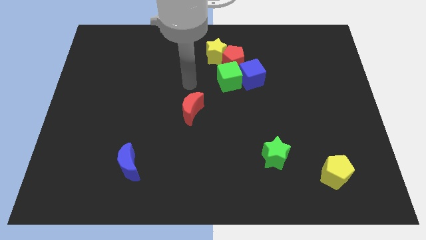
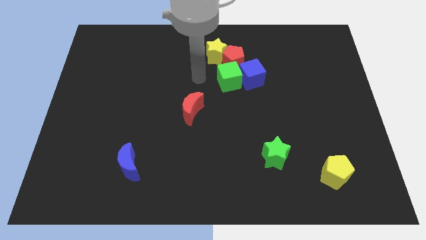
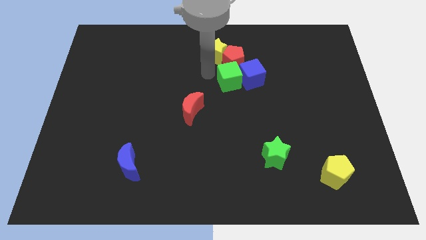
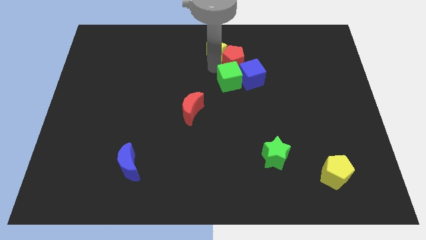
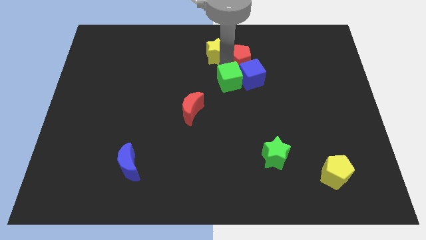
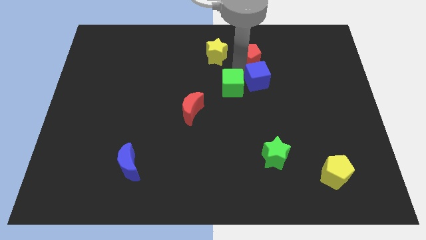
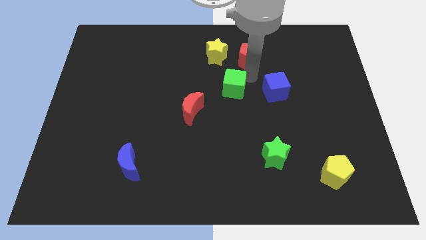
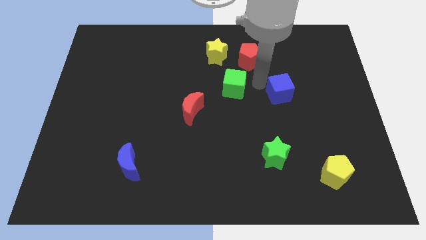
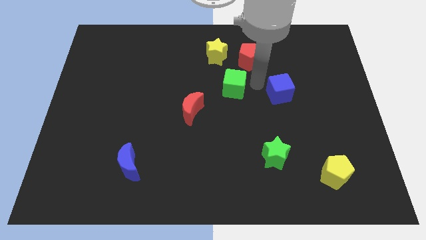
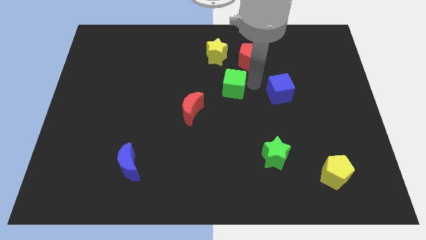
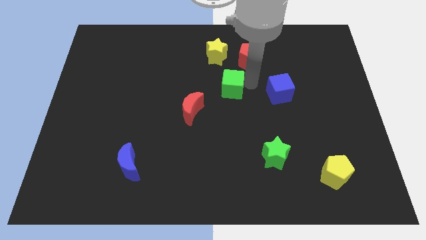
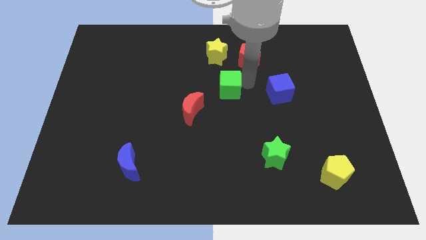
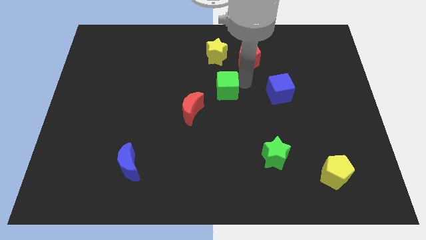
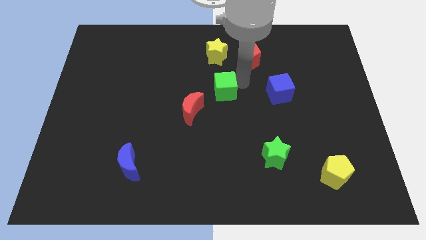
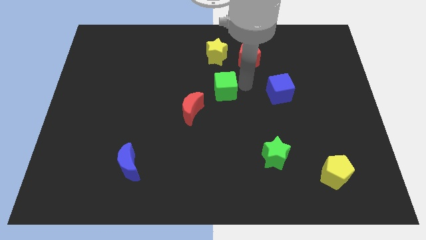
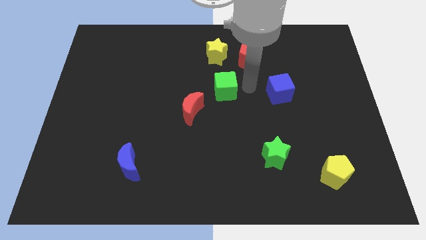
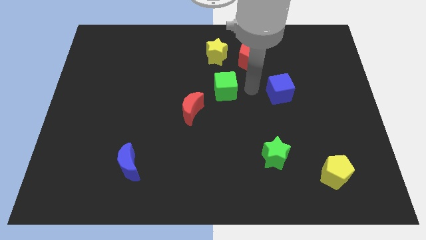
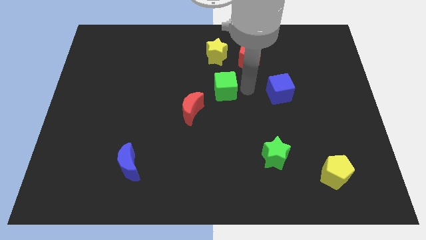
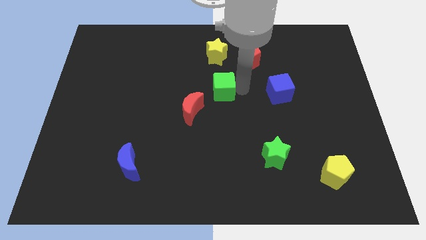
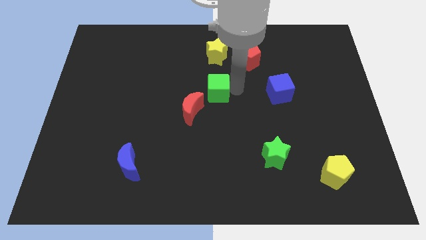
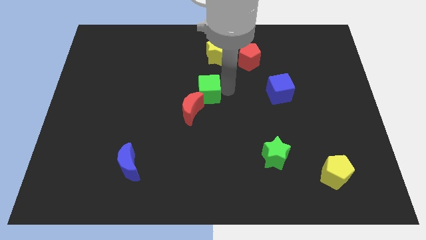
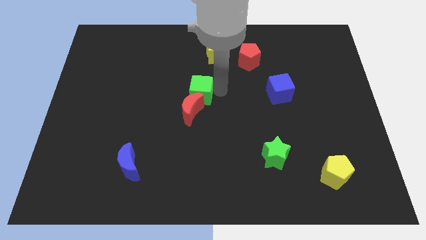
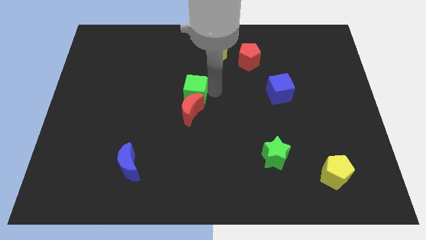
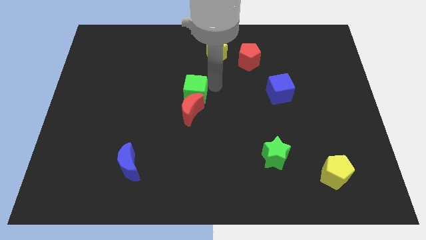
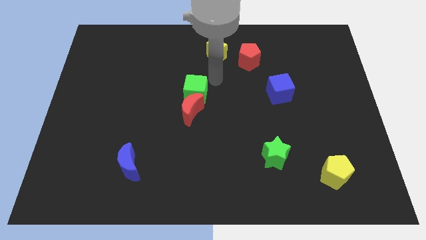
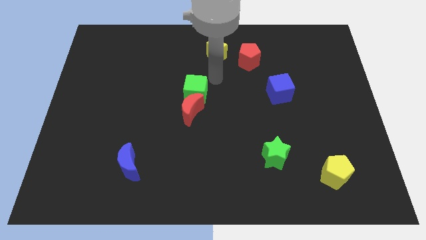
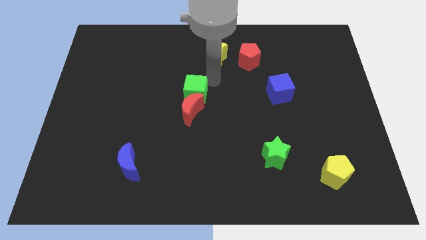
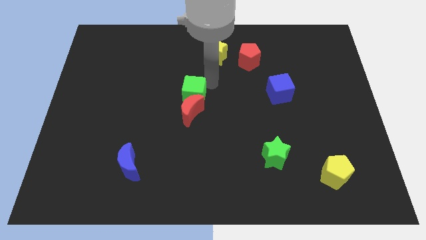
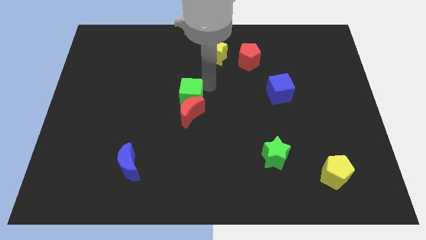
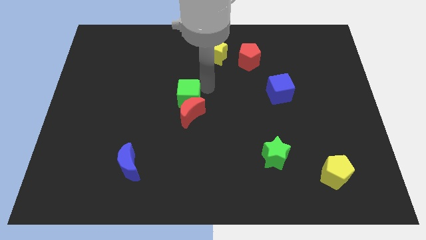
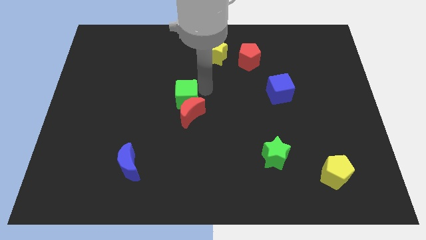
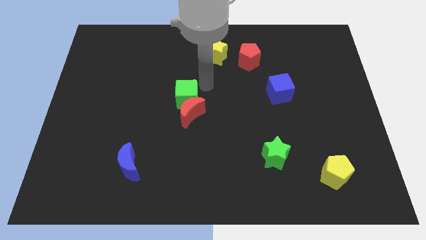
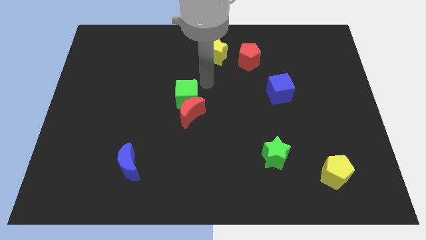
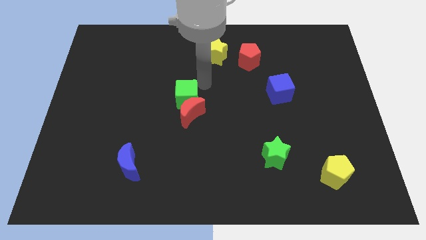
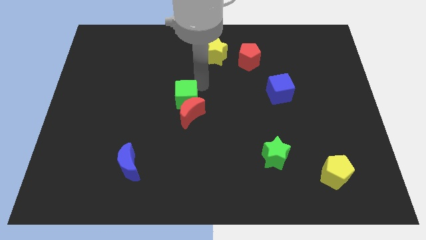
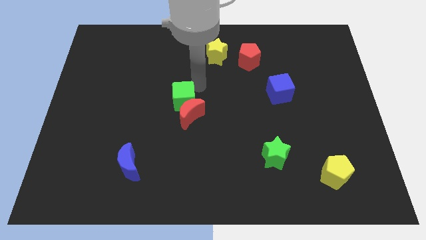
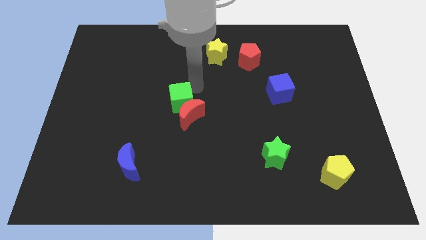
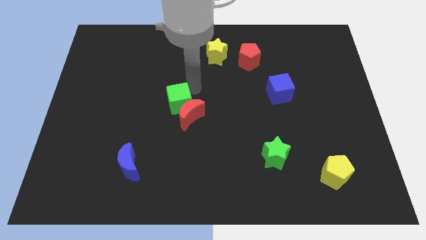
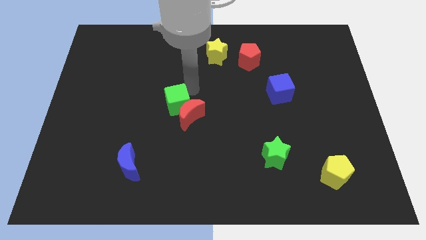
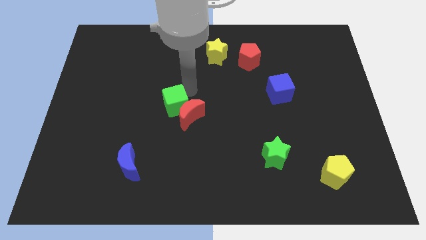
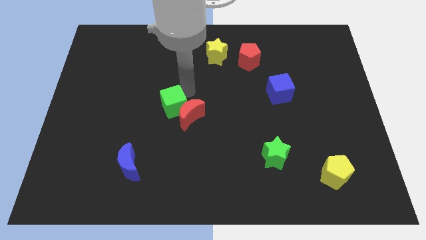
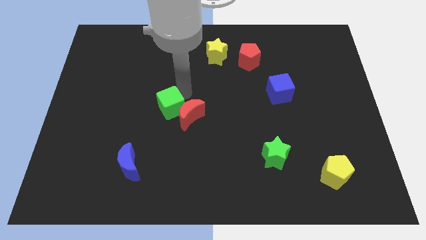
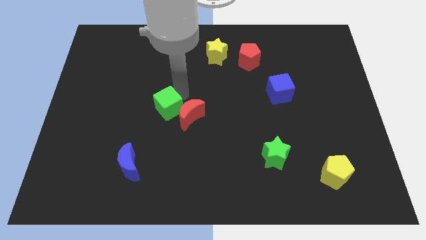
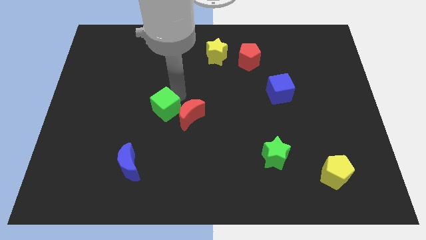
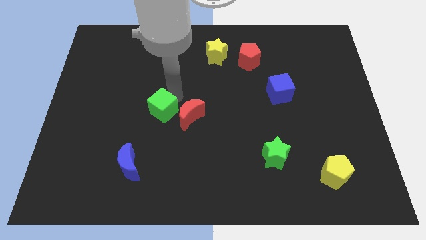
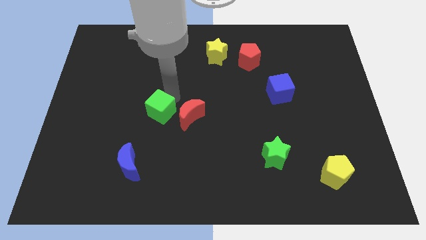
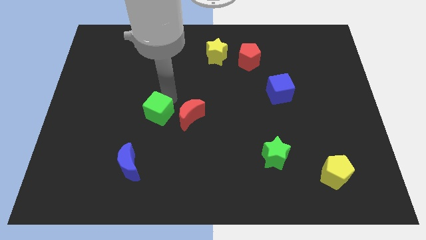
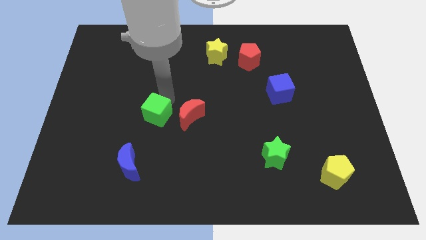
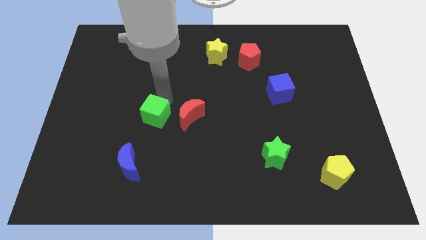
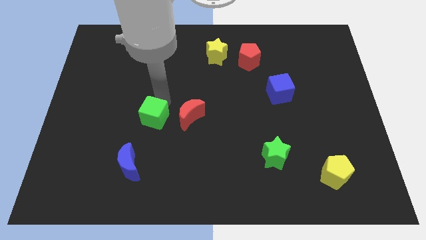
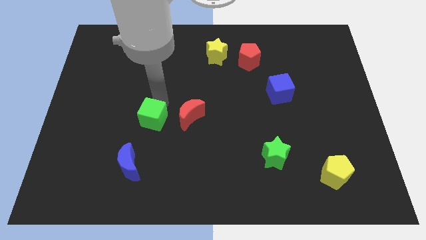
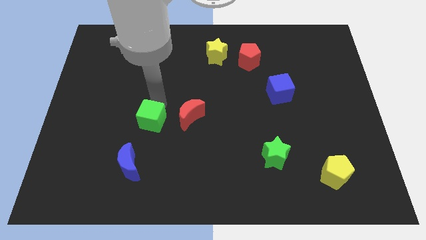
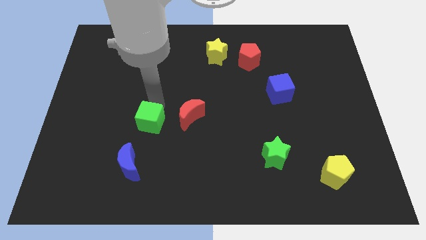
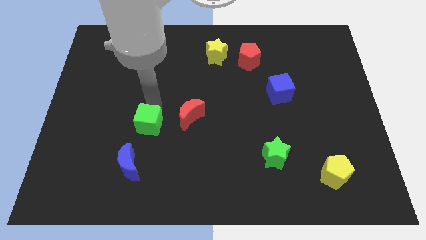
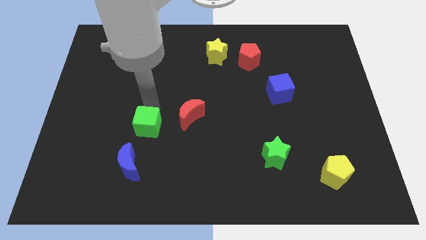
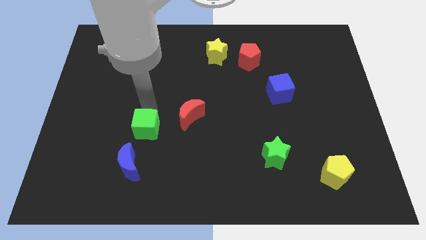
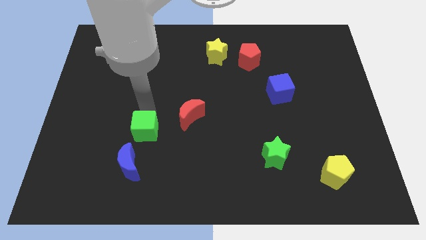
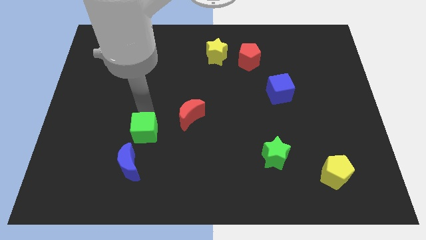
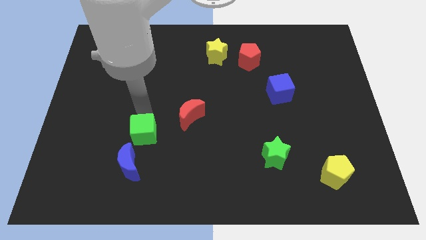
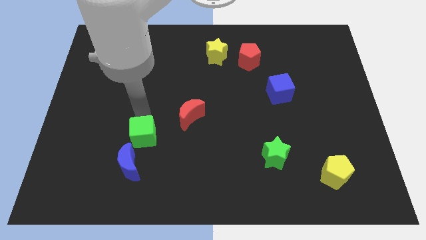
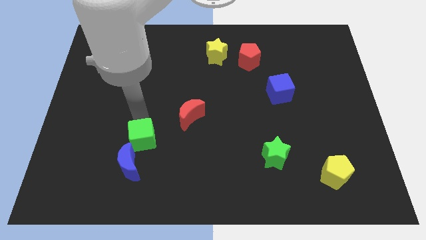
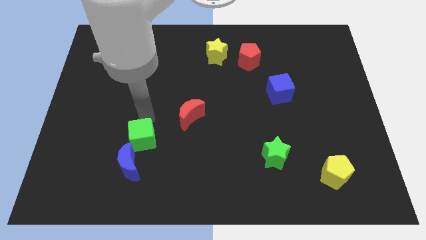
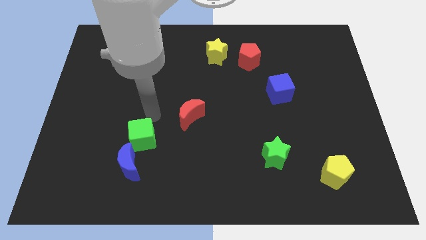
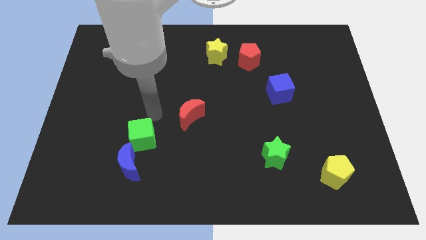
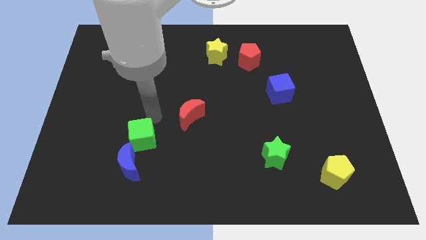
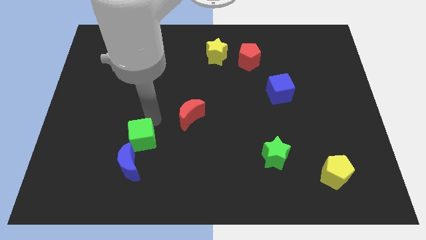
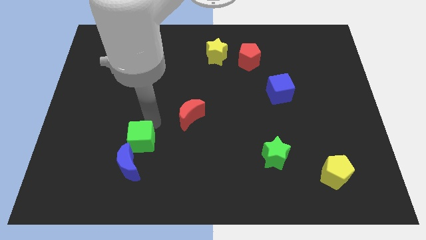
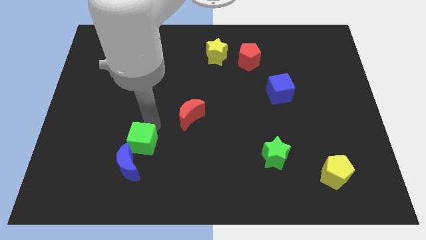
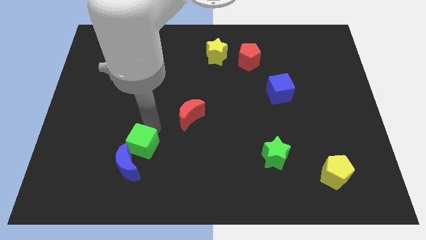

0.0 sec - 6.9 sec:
put the green cube close to the blue moon

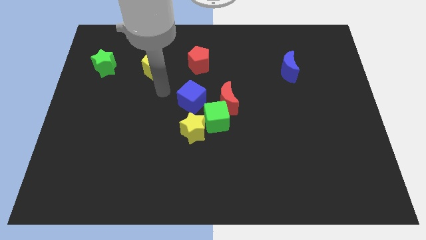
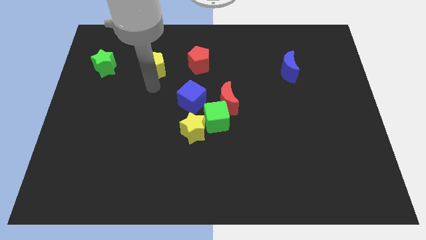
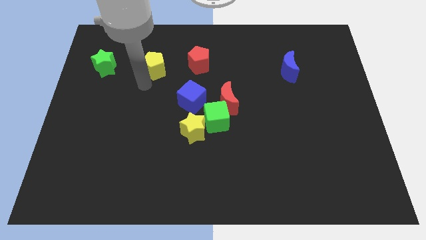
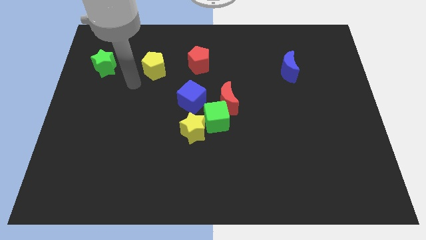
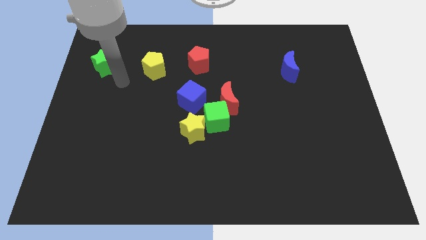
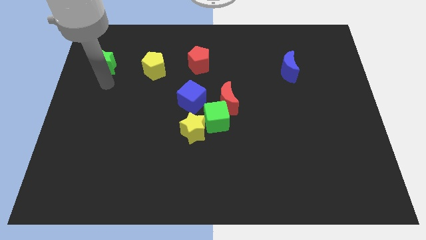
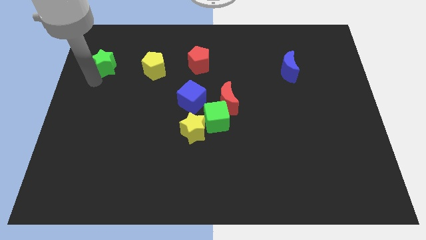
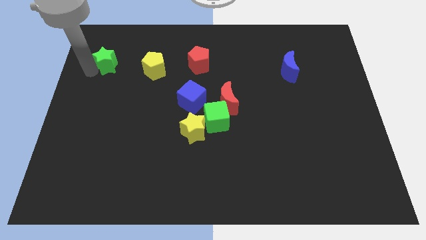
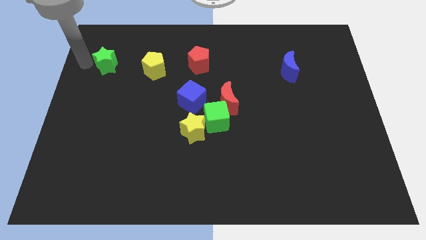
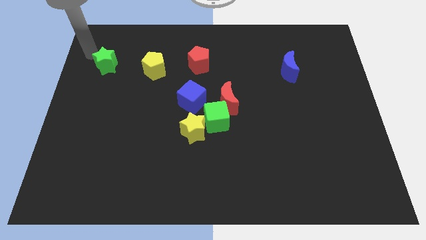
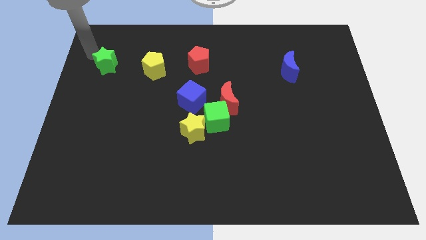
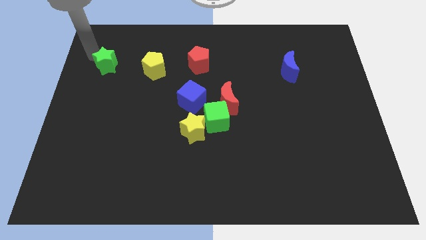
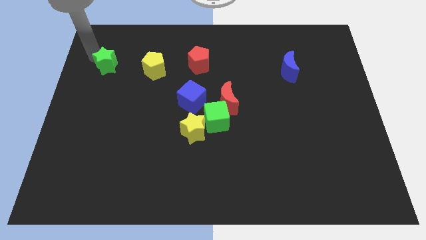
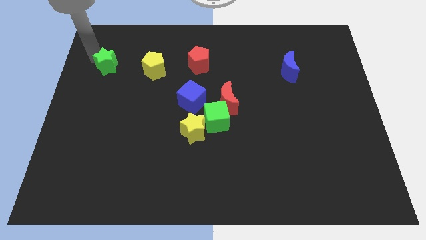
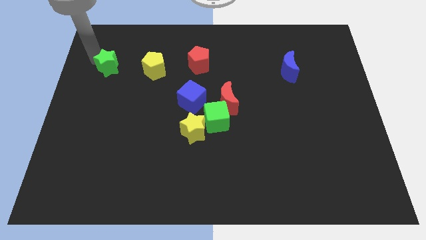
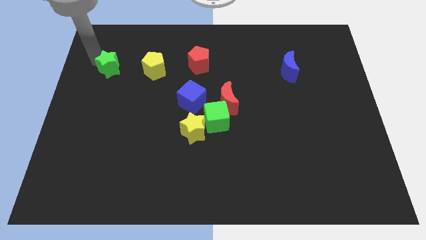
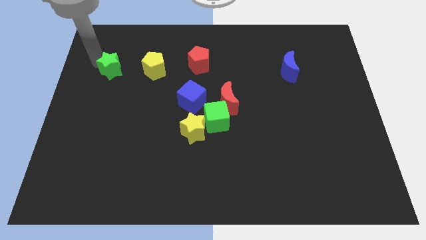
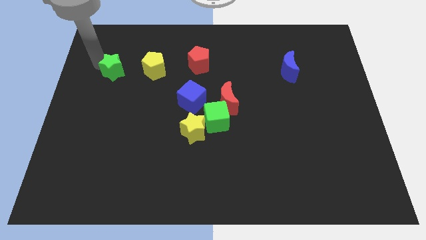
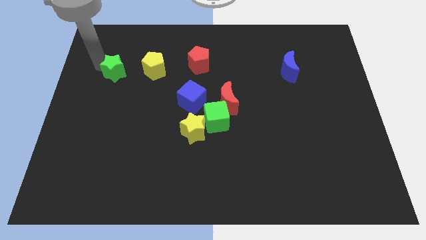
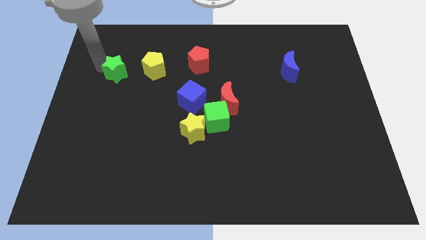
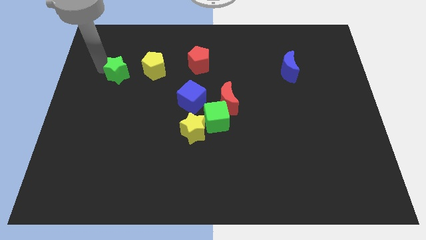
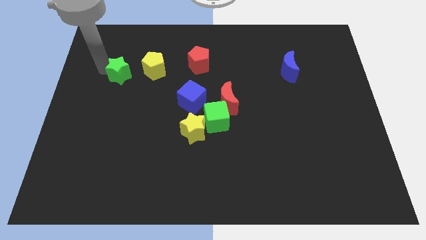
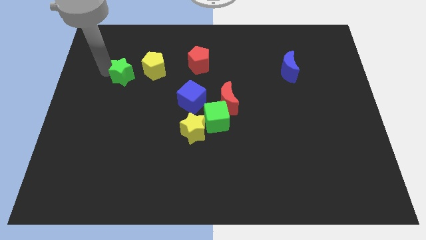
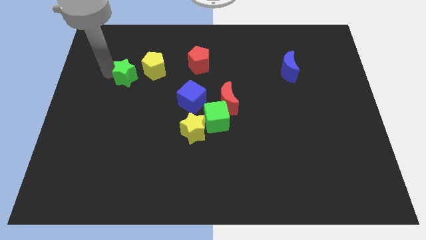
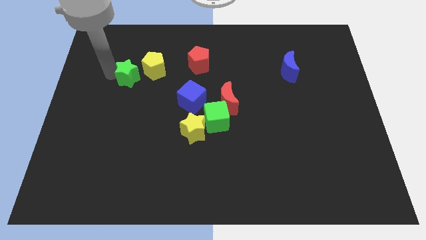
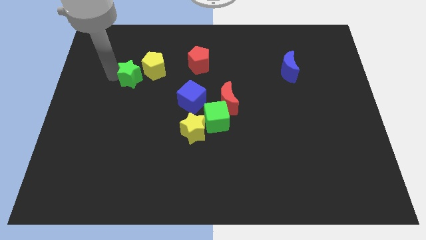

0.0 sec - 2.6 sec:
move the green star close to the yellow pentagon
